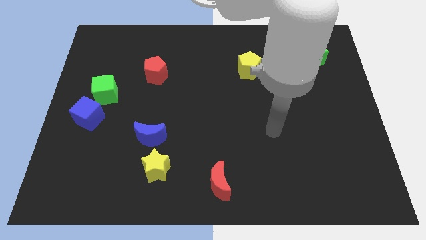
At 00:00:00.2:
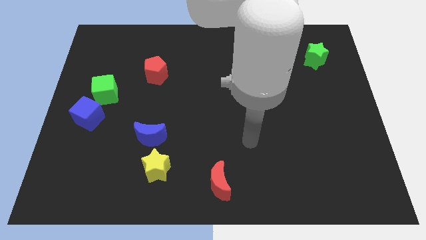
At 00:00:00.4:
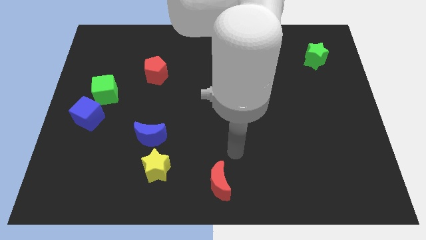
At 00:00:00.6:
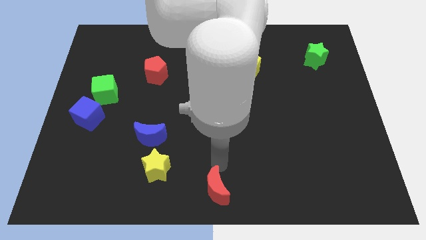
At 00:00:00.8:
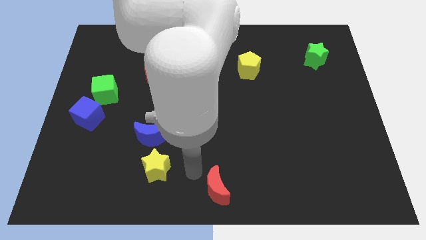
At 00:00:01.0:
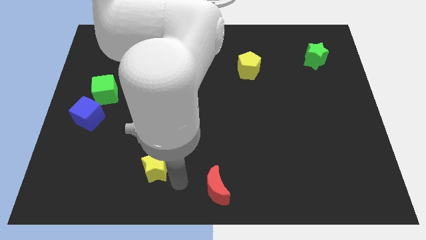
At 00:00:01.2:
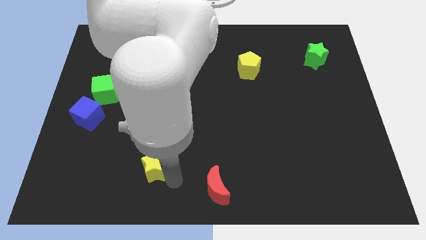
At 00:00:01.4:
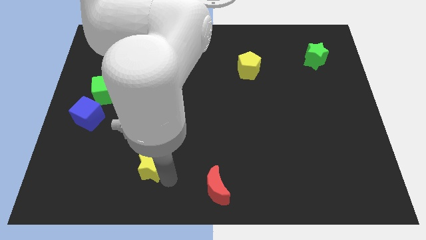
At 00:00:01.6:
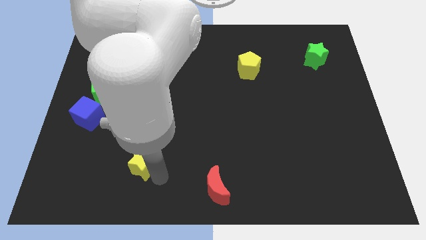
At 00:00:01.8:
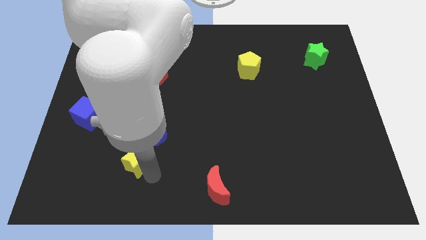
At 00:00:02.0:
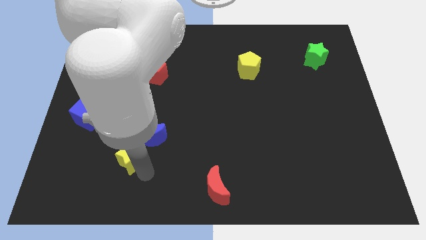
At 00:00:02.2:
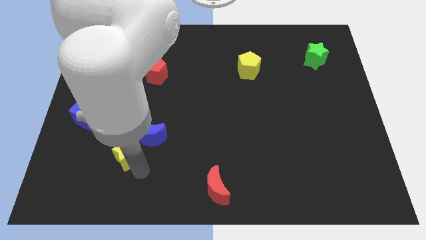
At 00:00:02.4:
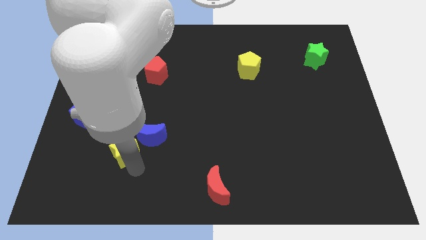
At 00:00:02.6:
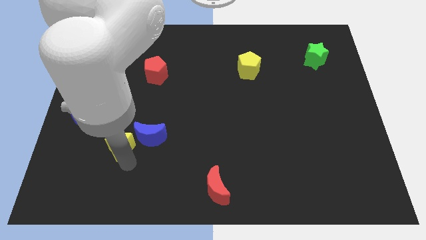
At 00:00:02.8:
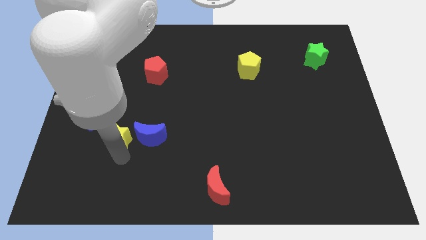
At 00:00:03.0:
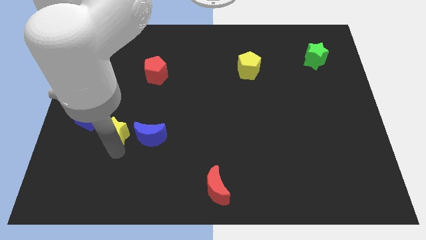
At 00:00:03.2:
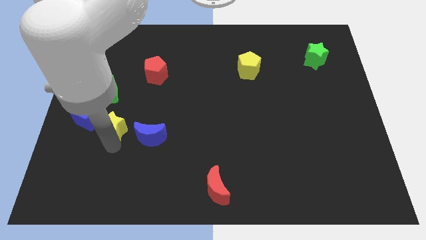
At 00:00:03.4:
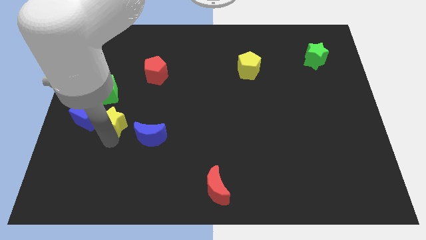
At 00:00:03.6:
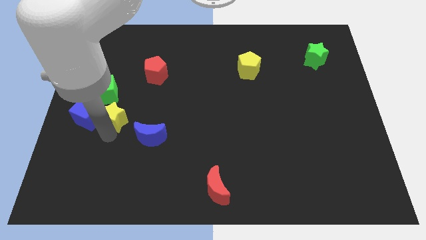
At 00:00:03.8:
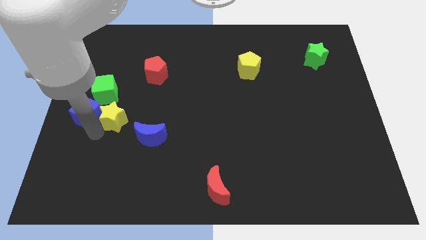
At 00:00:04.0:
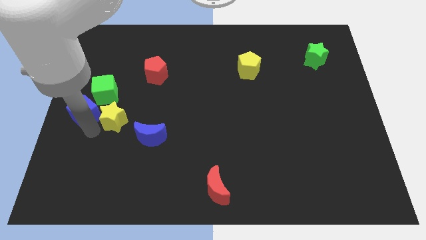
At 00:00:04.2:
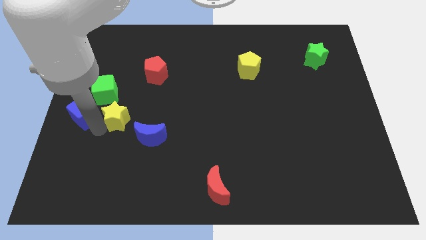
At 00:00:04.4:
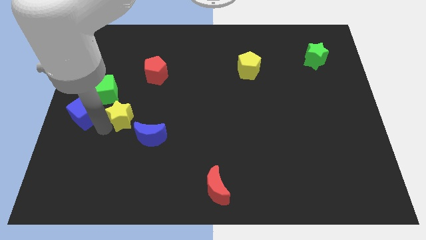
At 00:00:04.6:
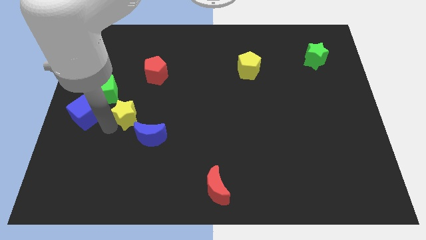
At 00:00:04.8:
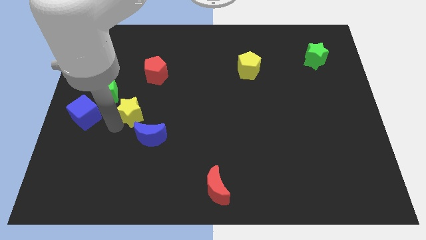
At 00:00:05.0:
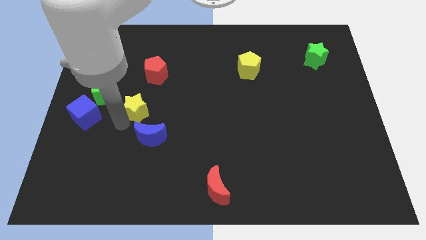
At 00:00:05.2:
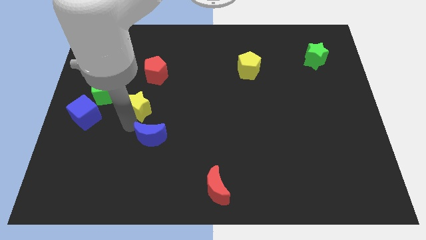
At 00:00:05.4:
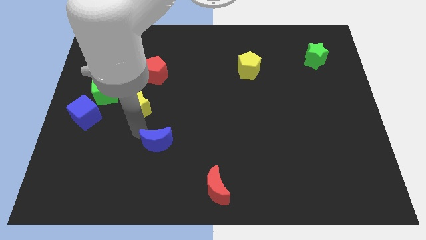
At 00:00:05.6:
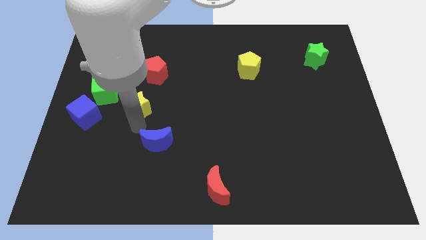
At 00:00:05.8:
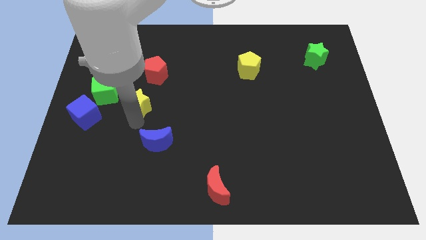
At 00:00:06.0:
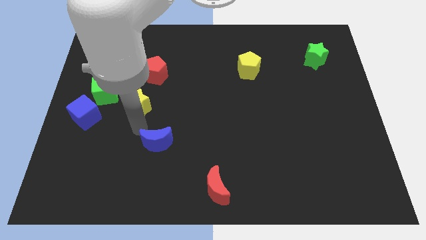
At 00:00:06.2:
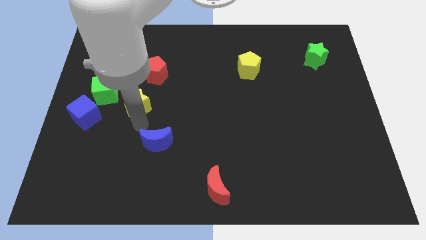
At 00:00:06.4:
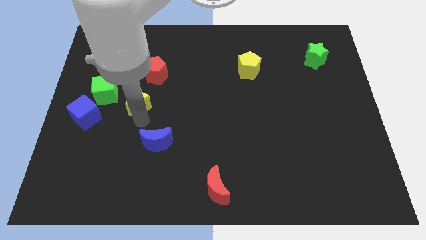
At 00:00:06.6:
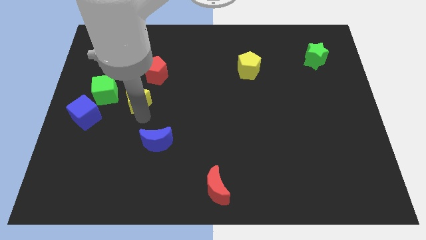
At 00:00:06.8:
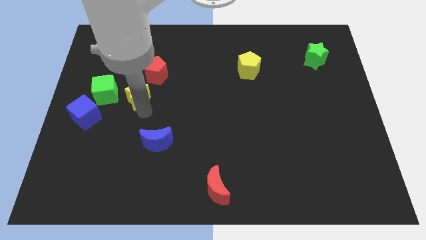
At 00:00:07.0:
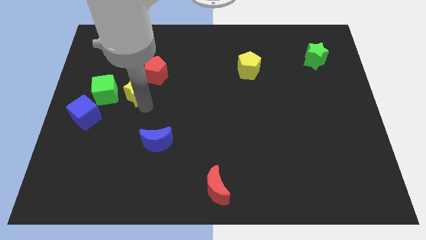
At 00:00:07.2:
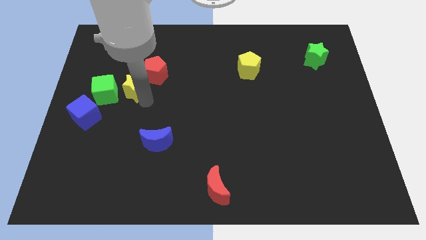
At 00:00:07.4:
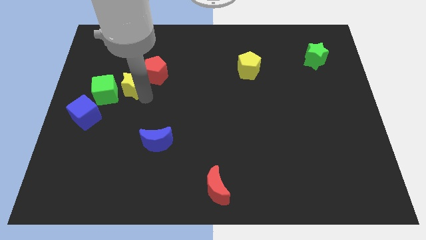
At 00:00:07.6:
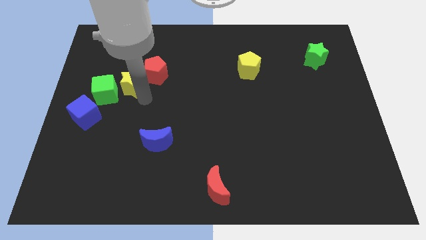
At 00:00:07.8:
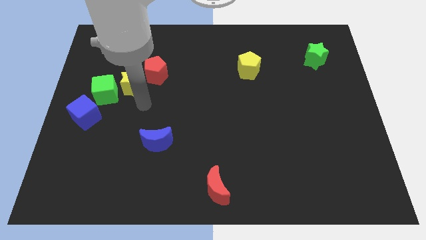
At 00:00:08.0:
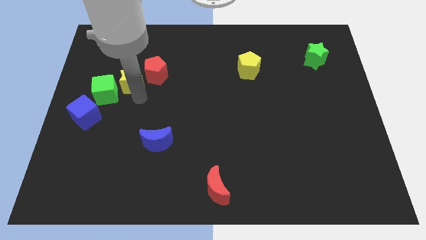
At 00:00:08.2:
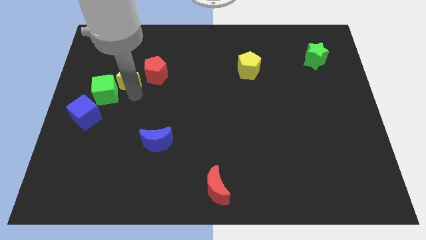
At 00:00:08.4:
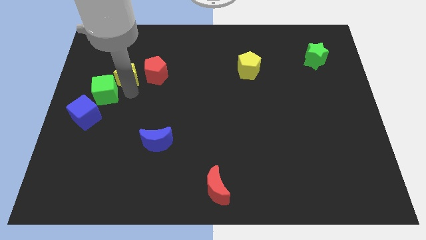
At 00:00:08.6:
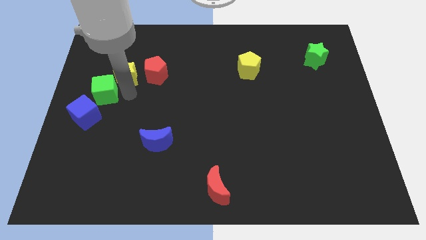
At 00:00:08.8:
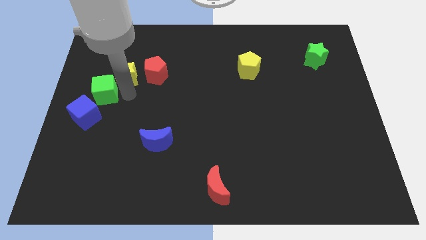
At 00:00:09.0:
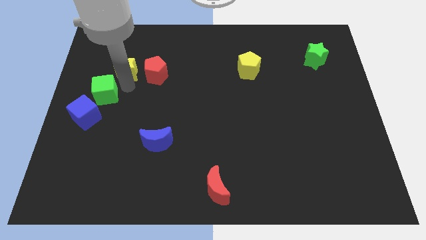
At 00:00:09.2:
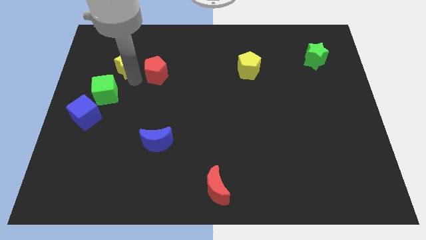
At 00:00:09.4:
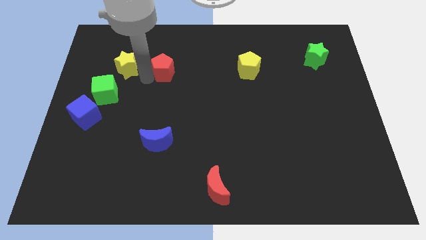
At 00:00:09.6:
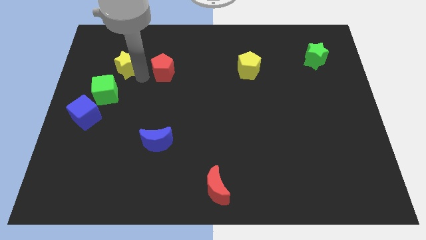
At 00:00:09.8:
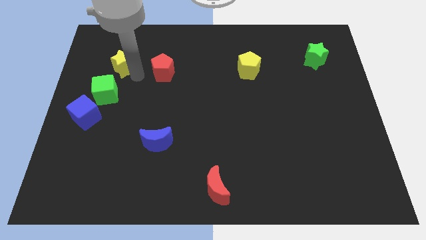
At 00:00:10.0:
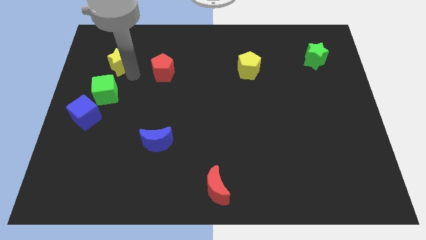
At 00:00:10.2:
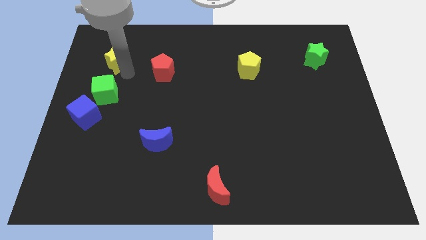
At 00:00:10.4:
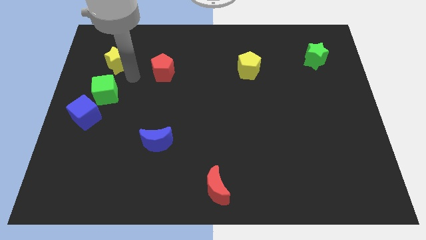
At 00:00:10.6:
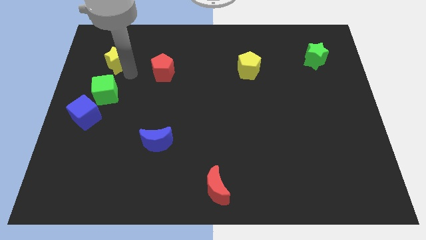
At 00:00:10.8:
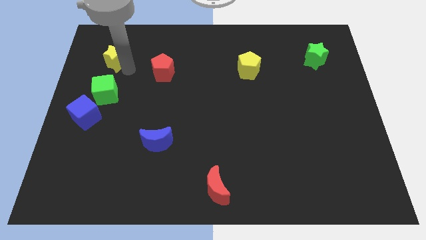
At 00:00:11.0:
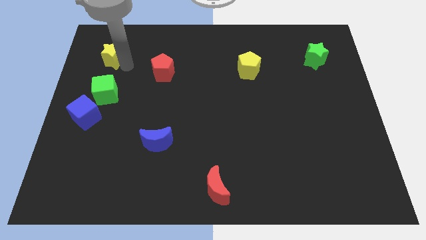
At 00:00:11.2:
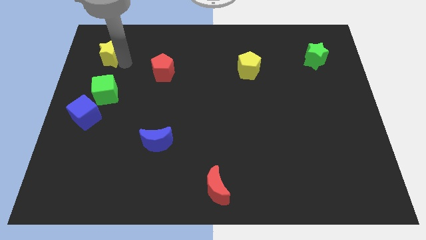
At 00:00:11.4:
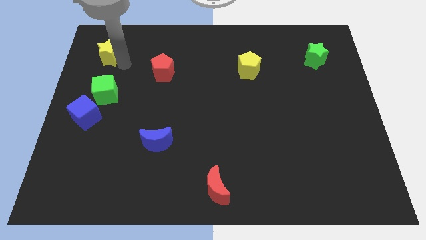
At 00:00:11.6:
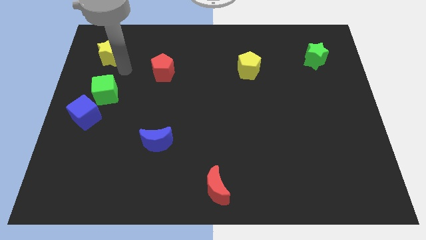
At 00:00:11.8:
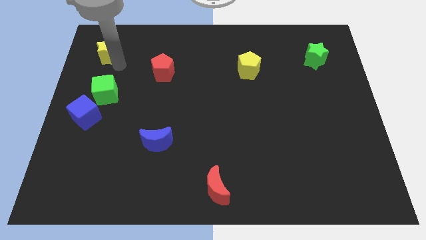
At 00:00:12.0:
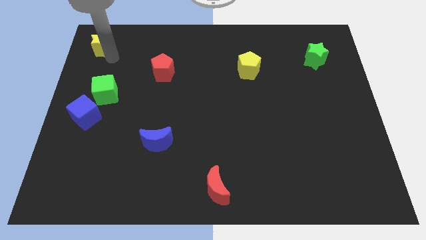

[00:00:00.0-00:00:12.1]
push the yellow star to the upper left corner

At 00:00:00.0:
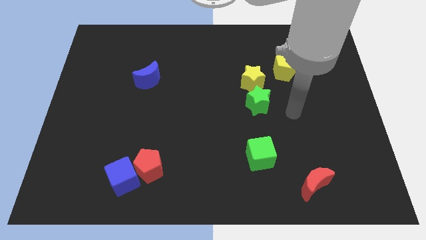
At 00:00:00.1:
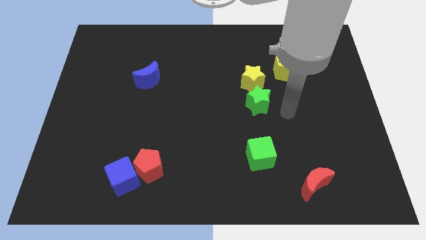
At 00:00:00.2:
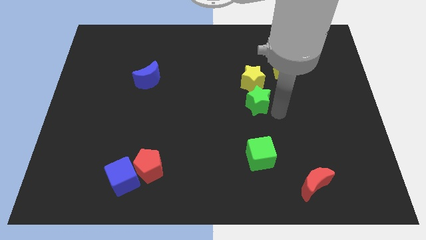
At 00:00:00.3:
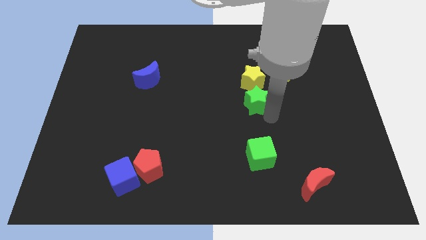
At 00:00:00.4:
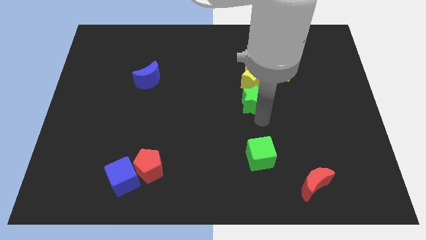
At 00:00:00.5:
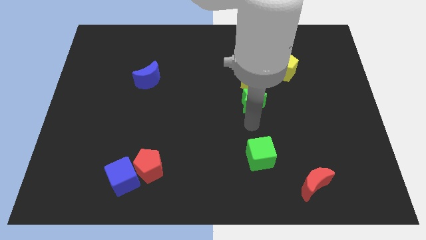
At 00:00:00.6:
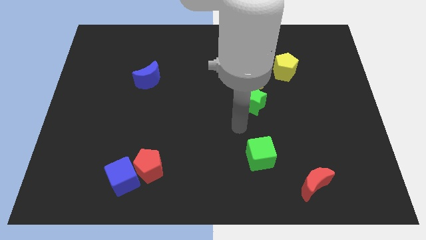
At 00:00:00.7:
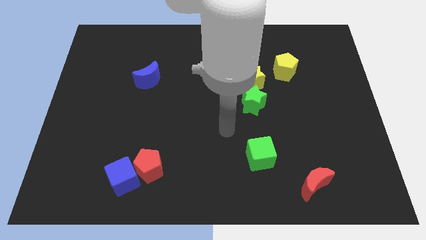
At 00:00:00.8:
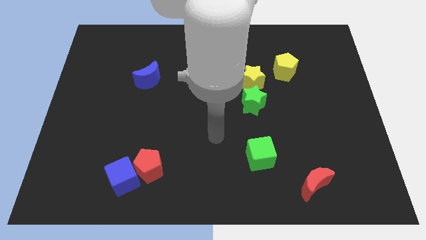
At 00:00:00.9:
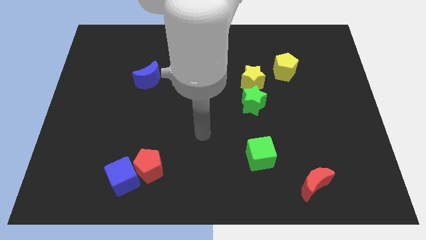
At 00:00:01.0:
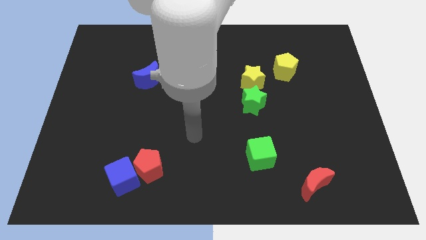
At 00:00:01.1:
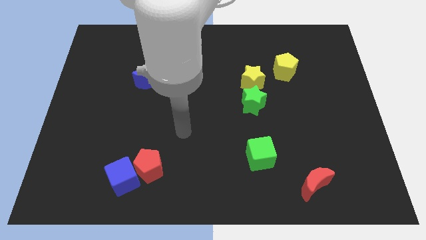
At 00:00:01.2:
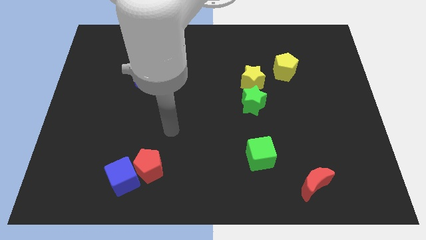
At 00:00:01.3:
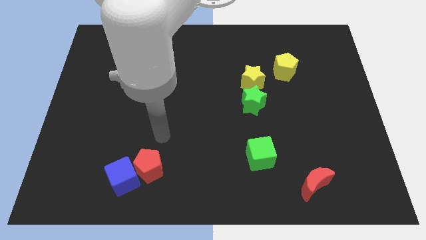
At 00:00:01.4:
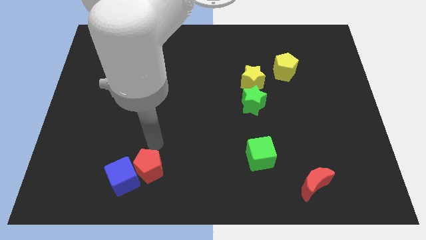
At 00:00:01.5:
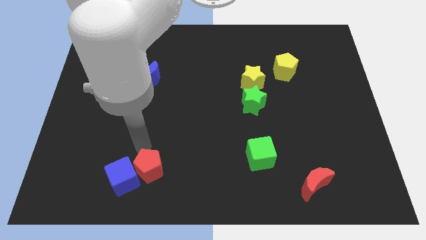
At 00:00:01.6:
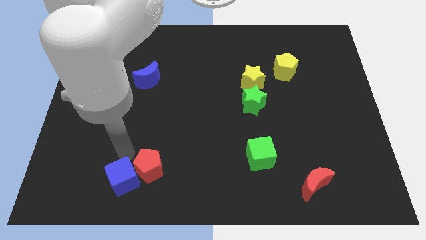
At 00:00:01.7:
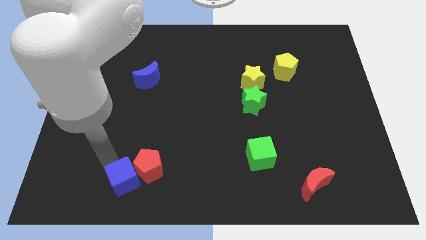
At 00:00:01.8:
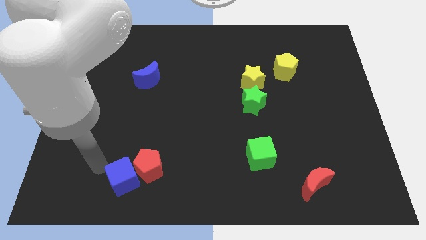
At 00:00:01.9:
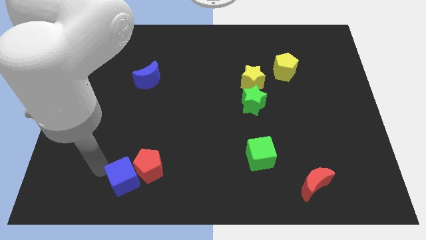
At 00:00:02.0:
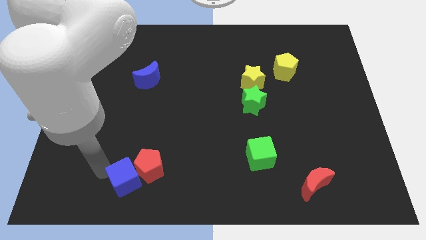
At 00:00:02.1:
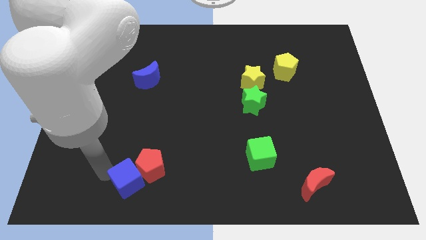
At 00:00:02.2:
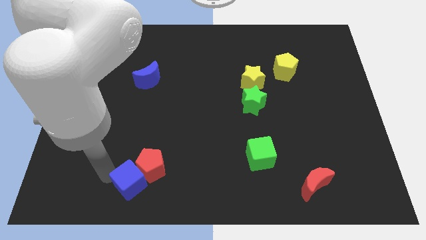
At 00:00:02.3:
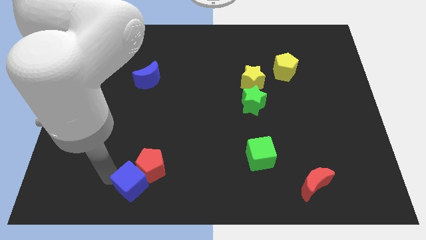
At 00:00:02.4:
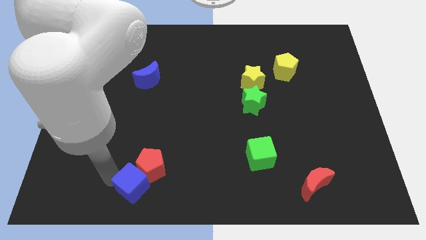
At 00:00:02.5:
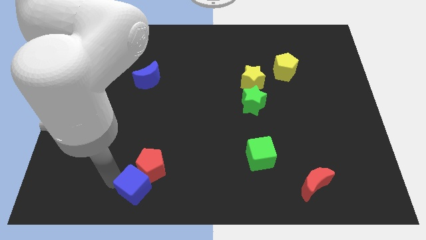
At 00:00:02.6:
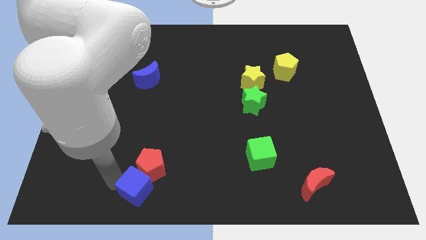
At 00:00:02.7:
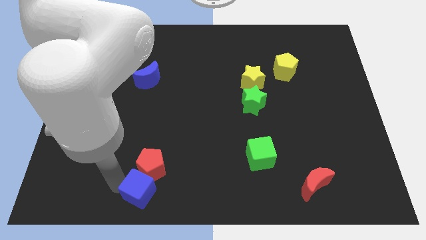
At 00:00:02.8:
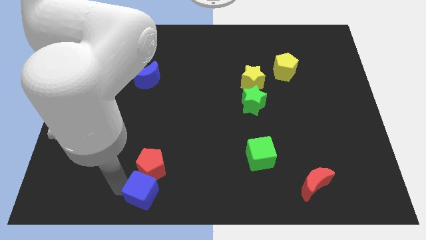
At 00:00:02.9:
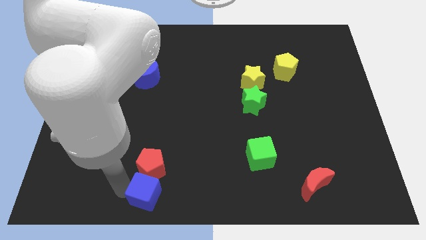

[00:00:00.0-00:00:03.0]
slide the blue cube to the bottom side
